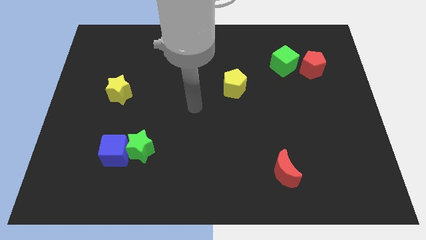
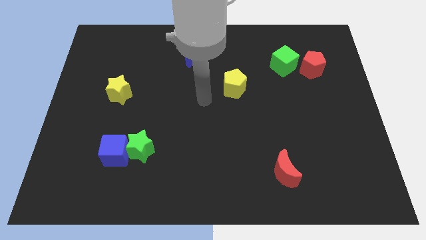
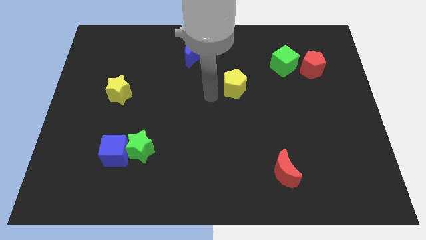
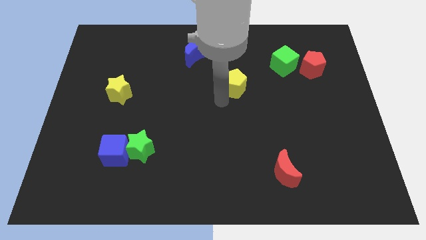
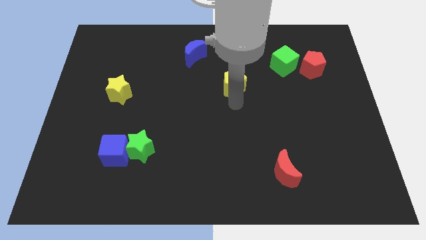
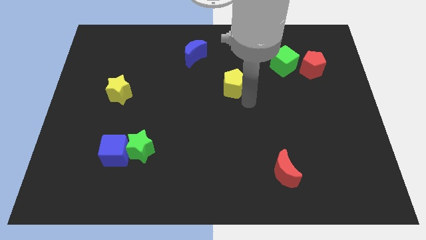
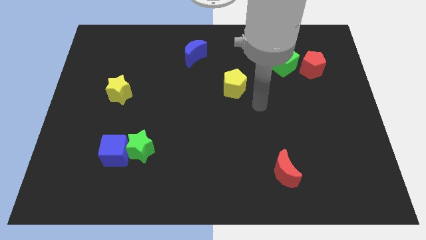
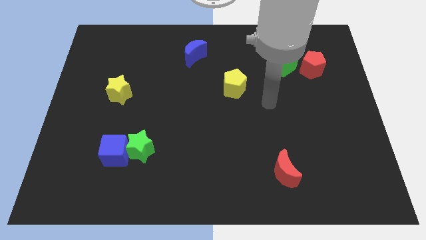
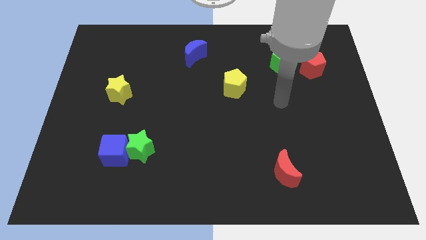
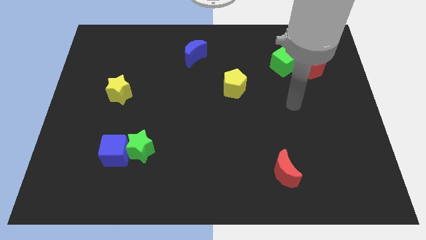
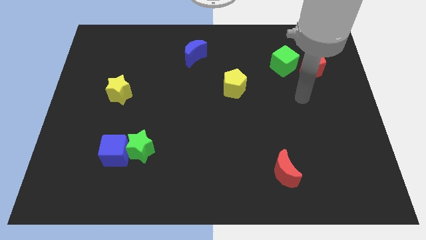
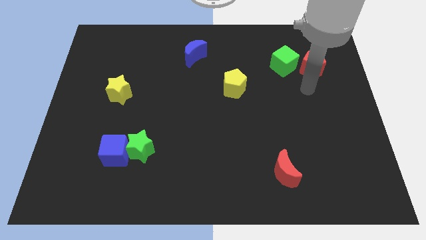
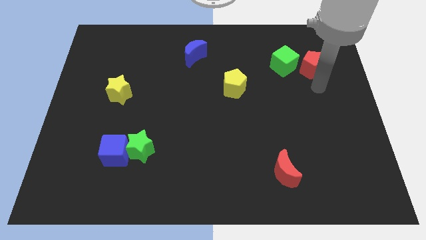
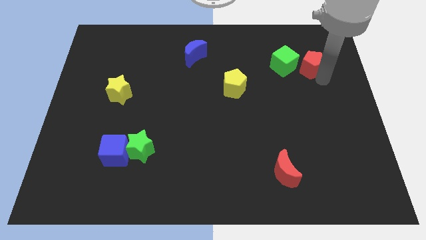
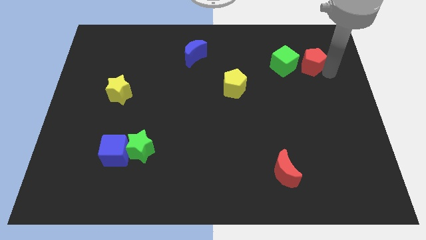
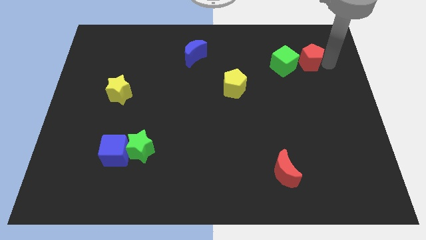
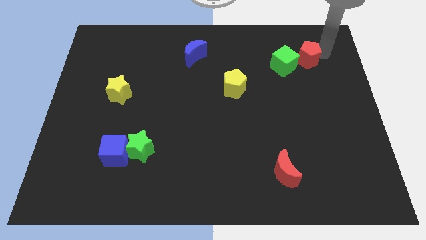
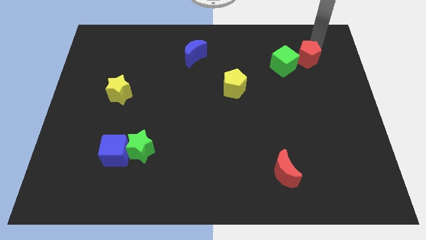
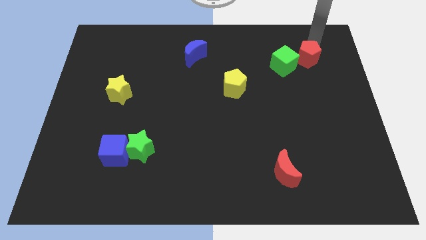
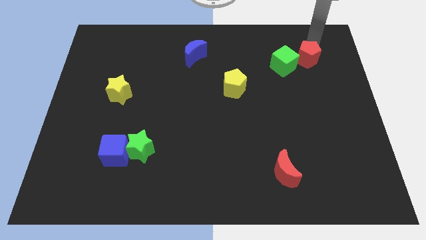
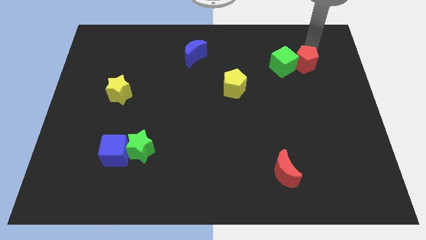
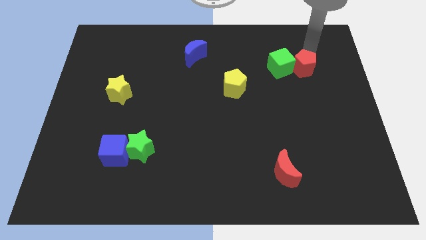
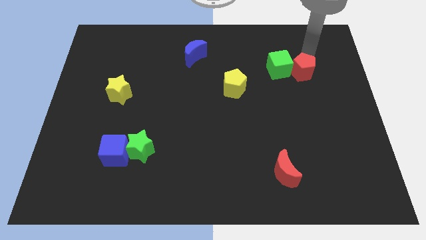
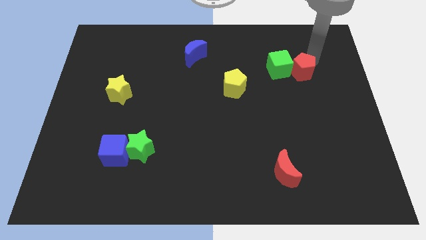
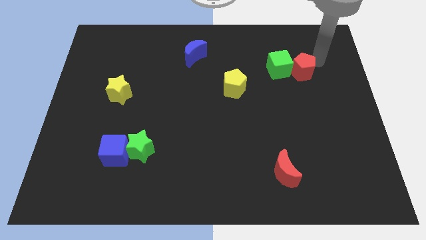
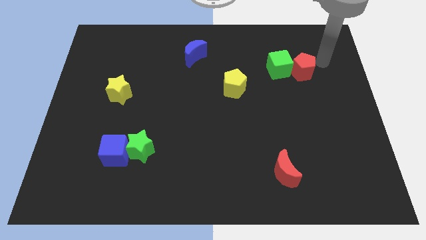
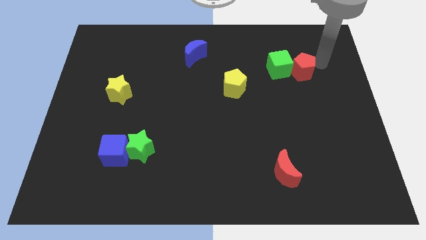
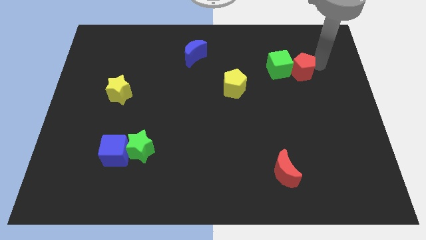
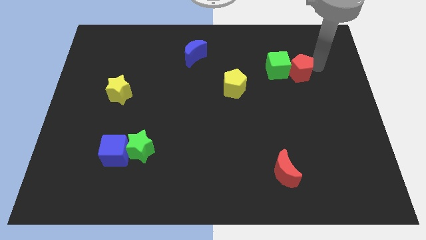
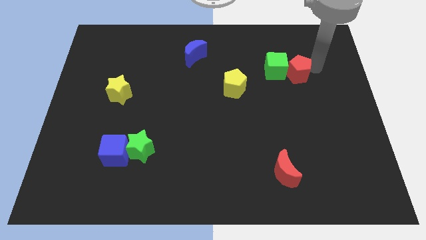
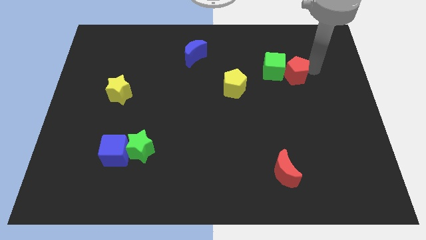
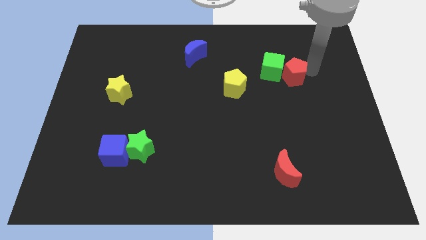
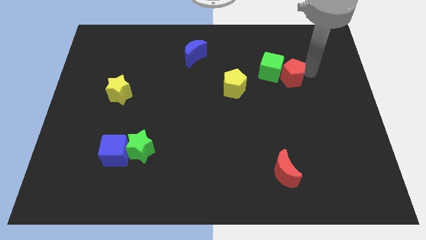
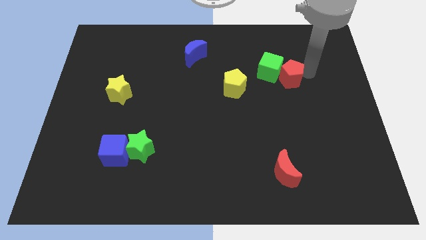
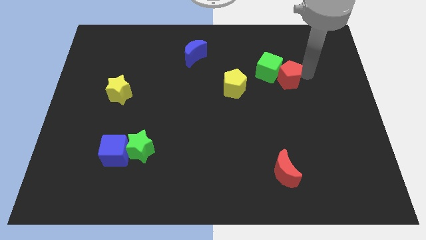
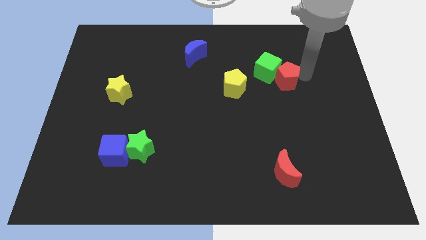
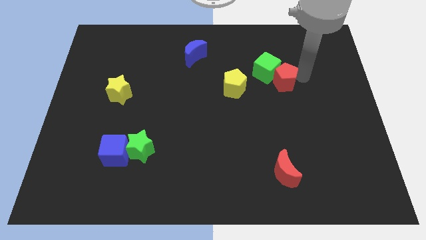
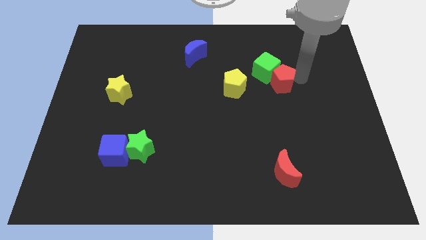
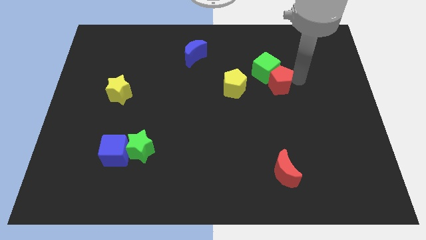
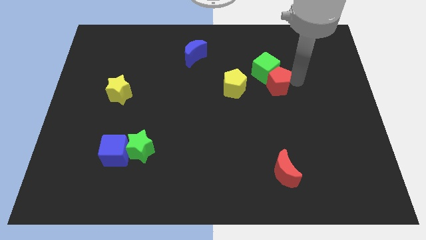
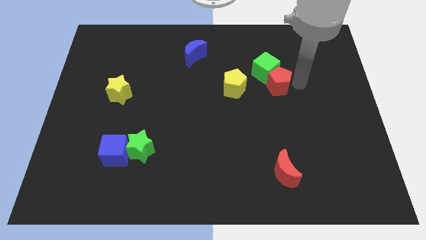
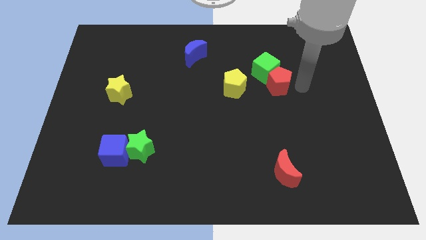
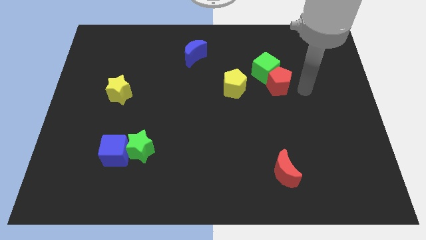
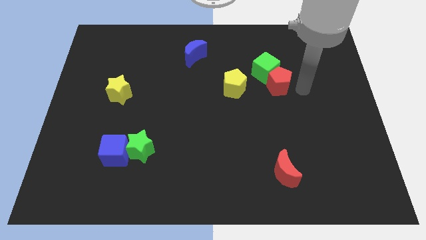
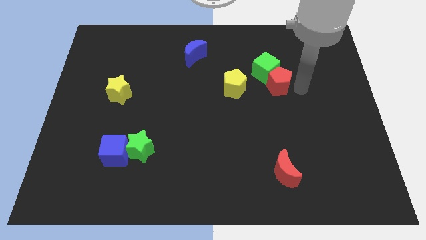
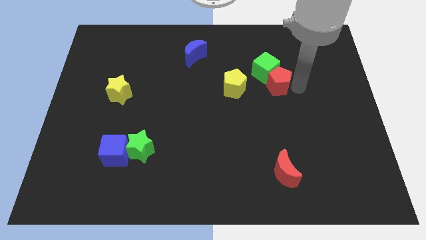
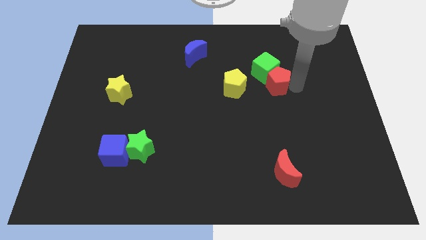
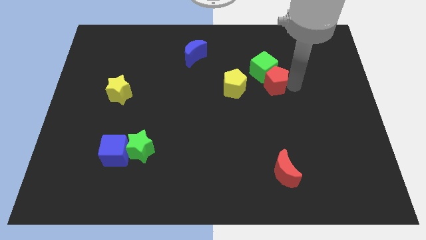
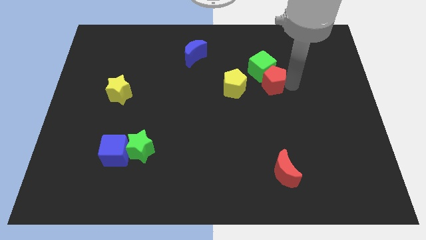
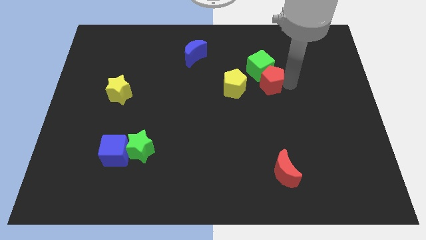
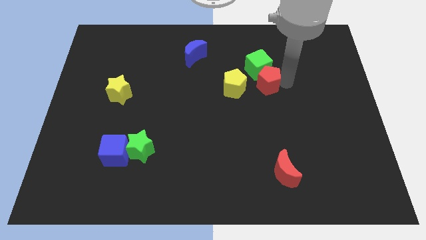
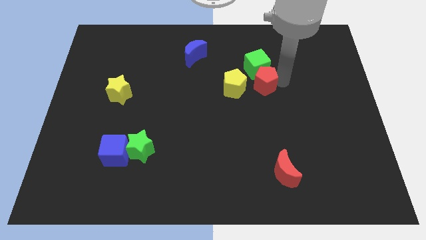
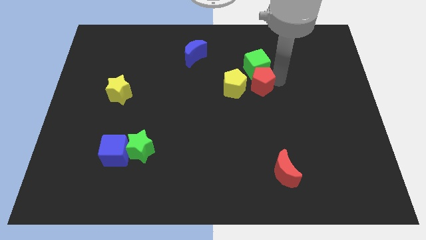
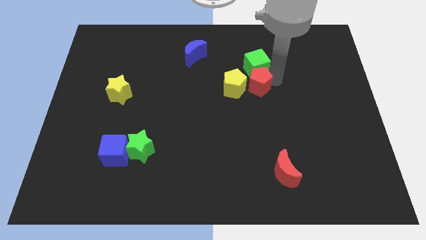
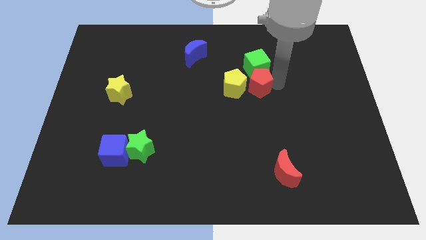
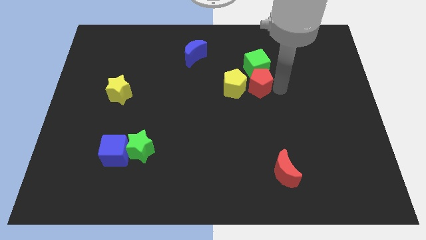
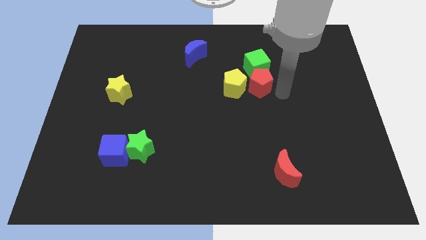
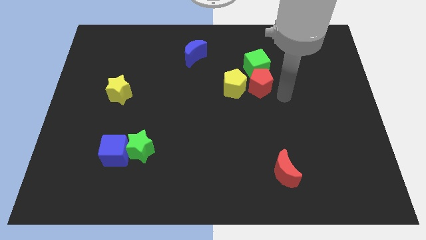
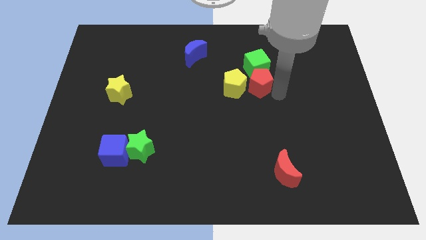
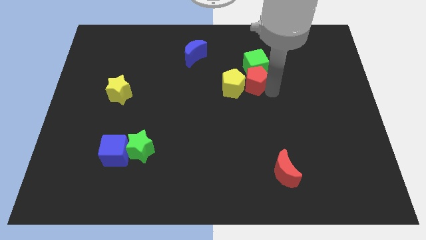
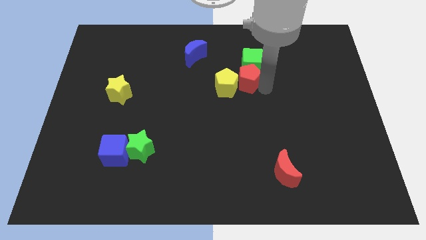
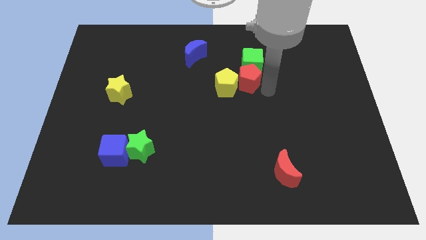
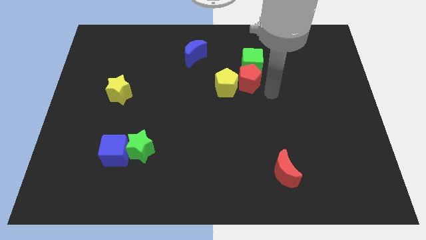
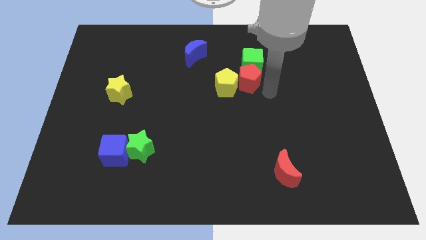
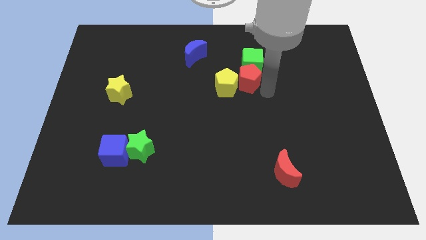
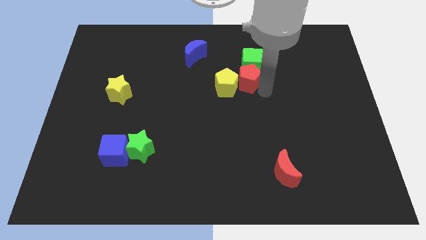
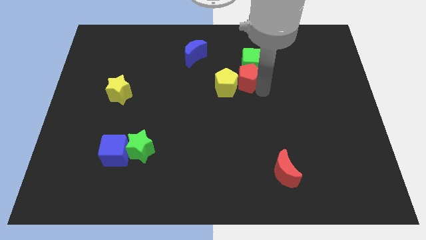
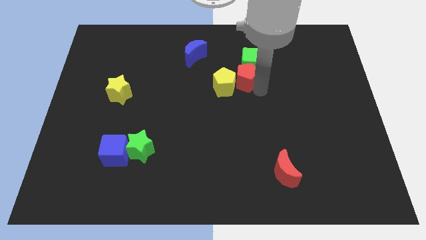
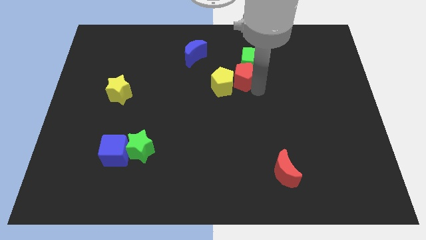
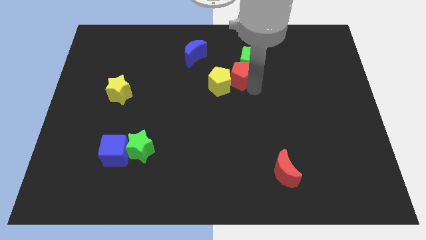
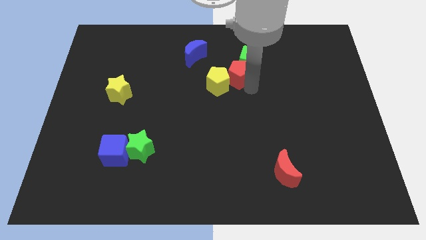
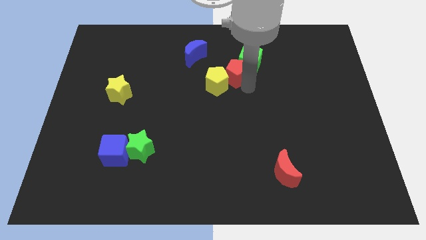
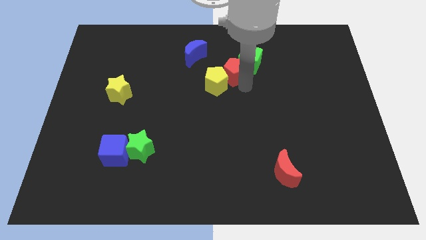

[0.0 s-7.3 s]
push the red pentagon left

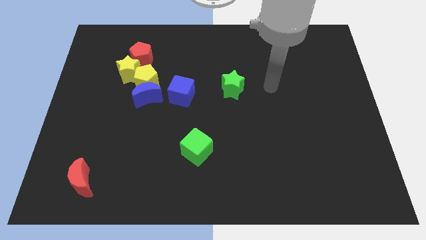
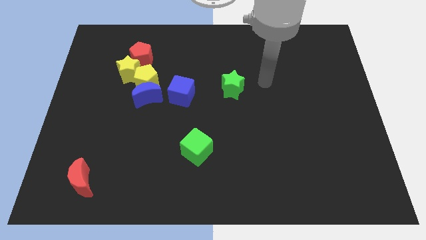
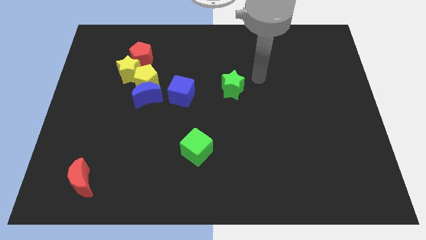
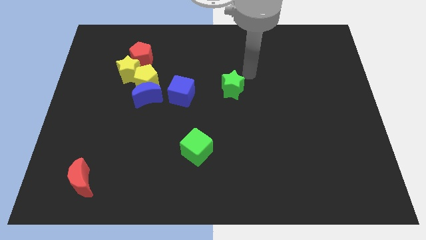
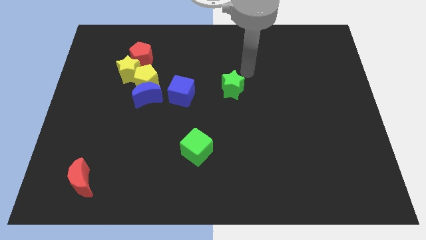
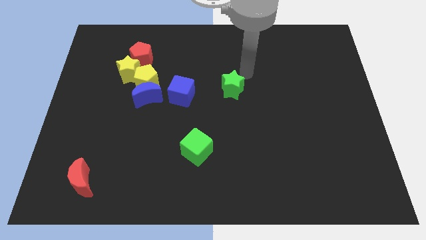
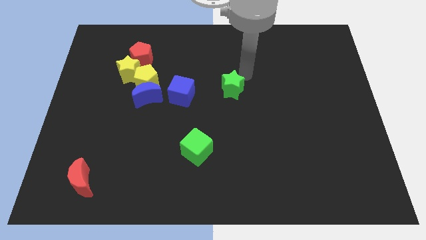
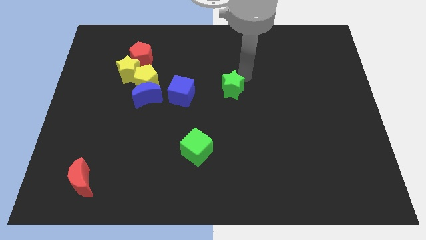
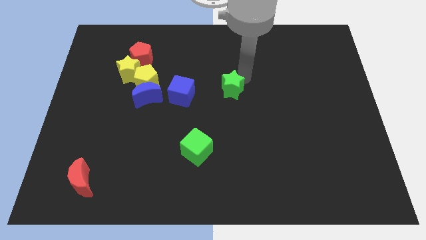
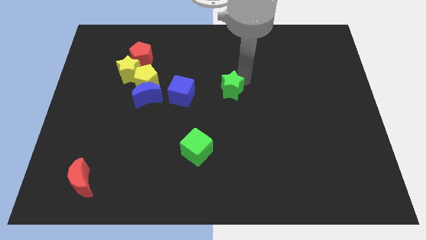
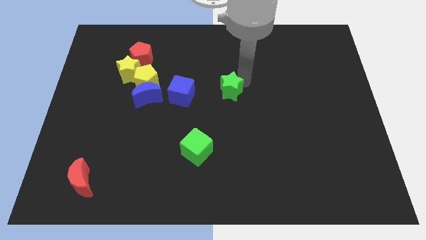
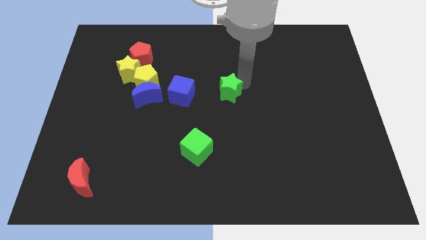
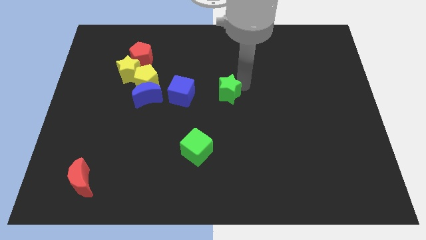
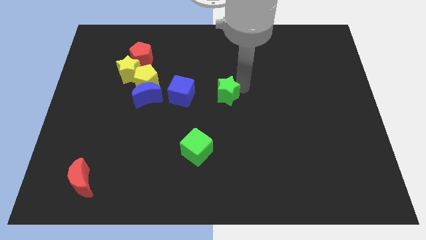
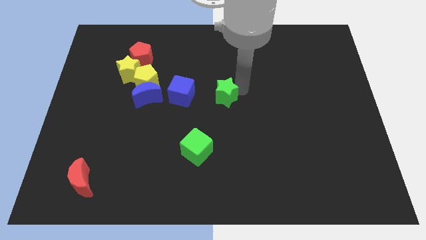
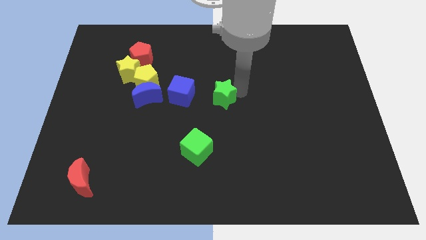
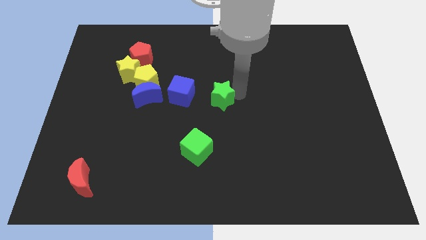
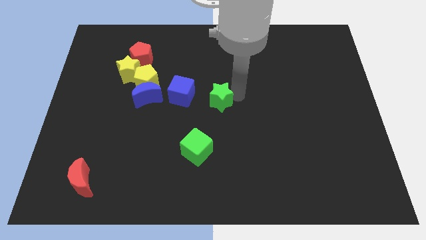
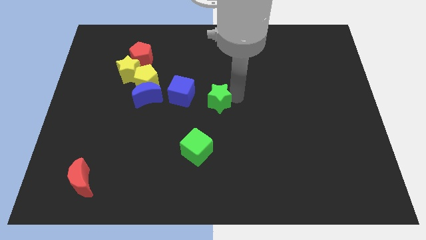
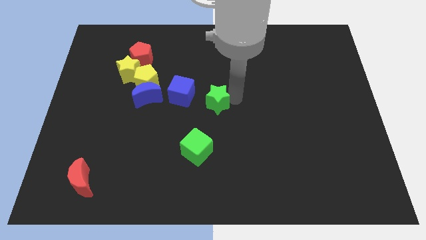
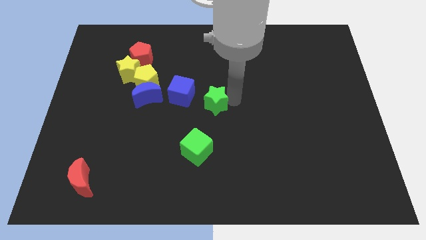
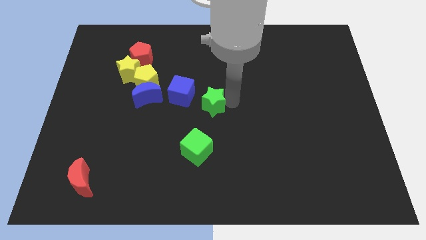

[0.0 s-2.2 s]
slide the green star somewhat downwards and to the left
